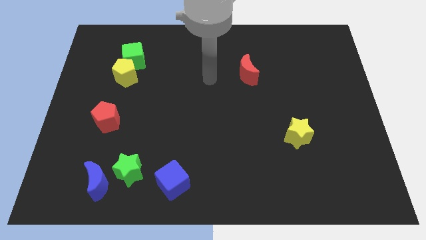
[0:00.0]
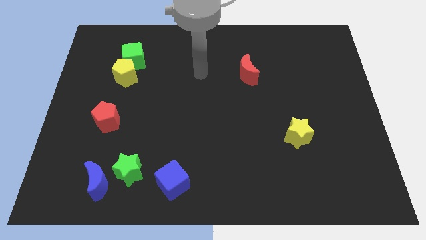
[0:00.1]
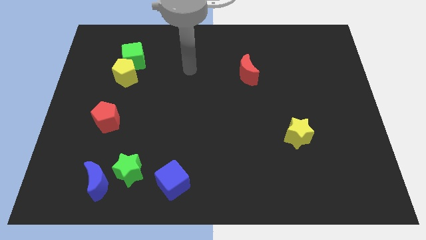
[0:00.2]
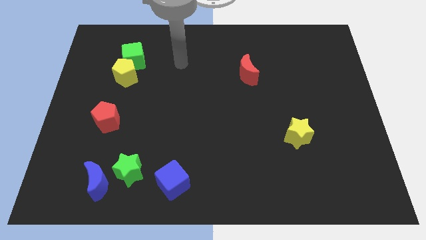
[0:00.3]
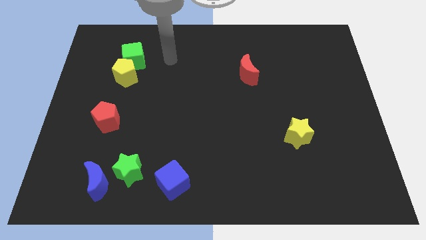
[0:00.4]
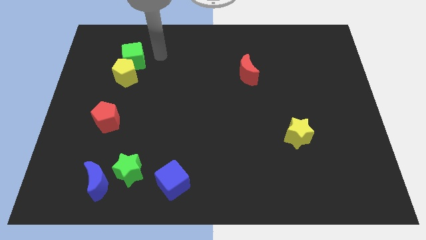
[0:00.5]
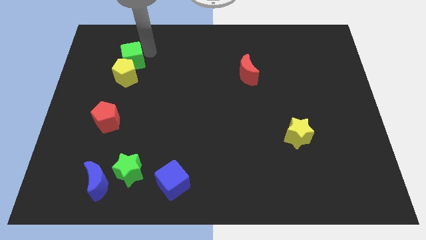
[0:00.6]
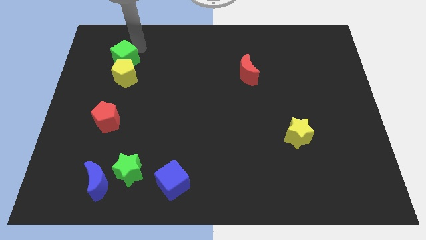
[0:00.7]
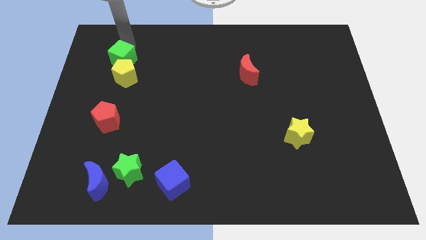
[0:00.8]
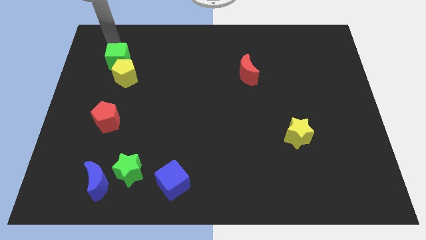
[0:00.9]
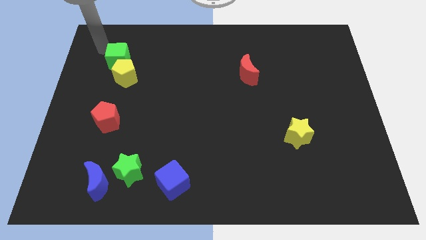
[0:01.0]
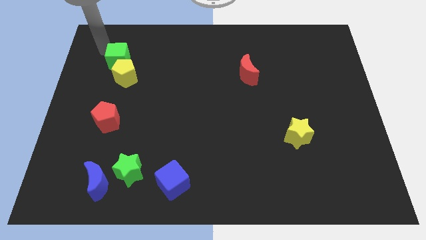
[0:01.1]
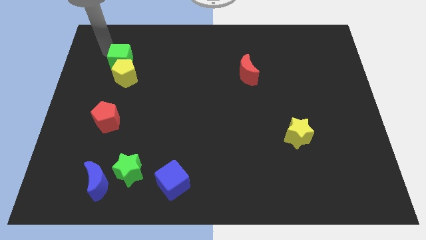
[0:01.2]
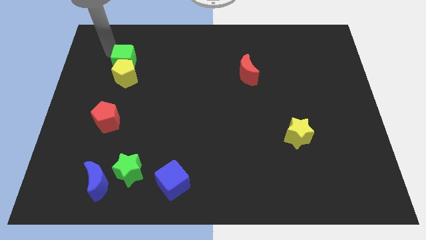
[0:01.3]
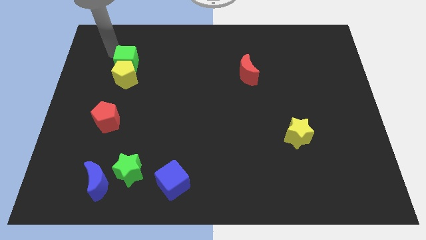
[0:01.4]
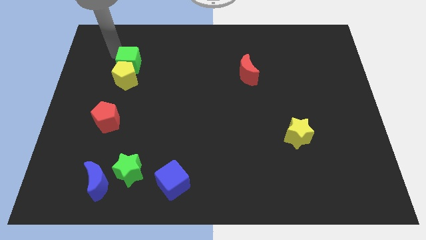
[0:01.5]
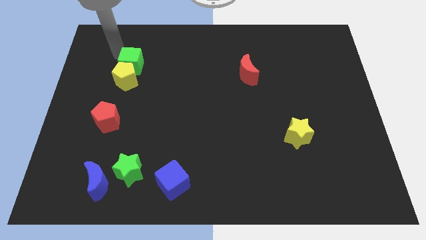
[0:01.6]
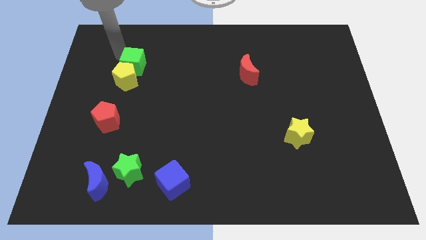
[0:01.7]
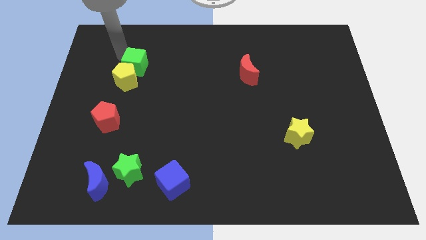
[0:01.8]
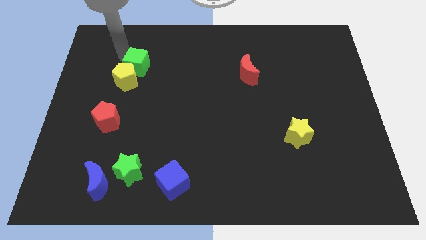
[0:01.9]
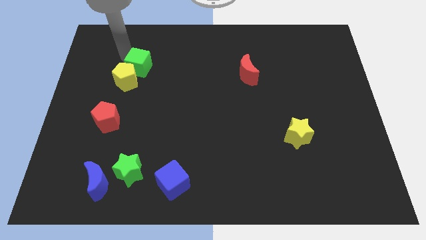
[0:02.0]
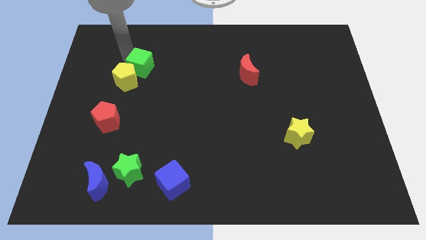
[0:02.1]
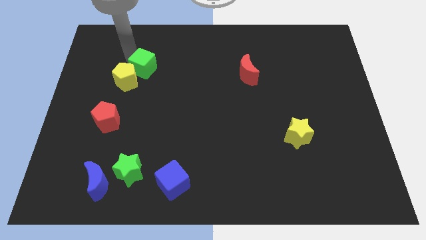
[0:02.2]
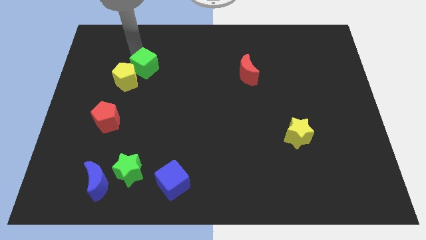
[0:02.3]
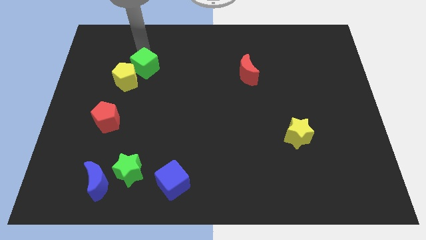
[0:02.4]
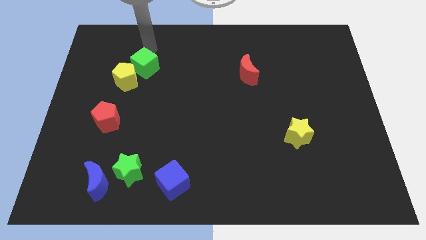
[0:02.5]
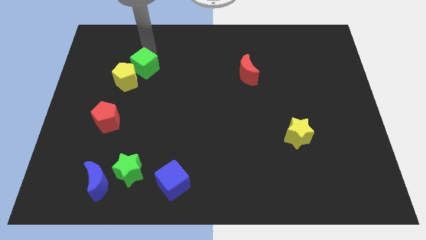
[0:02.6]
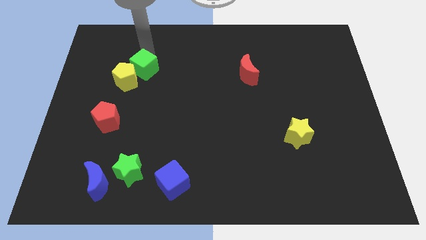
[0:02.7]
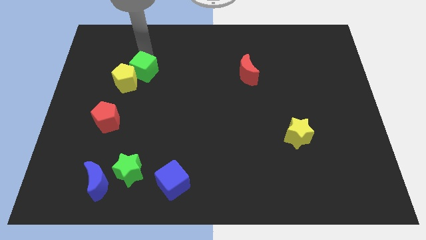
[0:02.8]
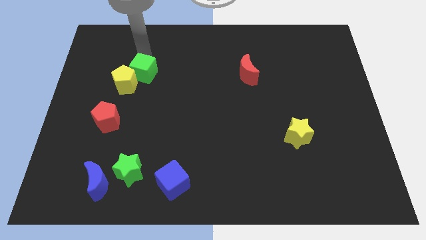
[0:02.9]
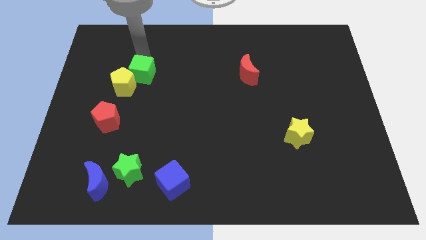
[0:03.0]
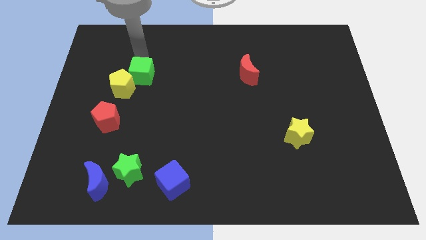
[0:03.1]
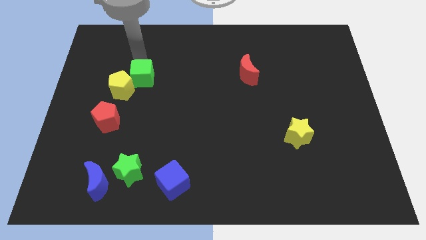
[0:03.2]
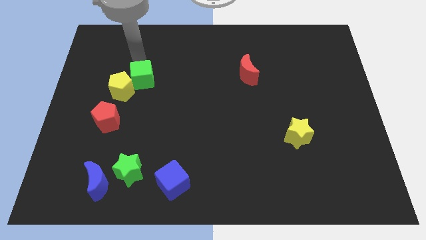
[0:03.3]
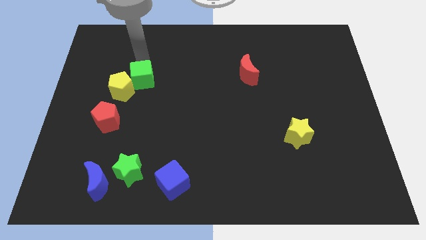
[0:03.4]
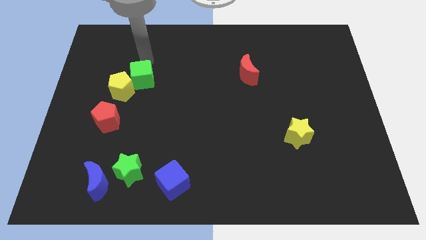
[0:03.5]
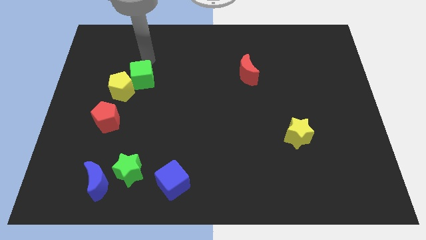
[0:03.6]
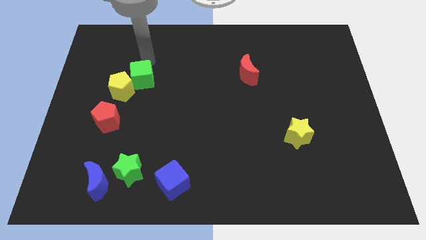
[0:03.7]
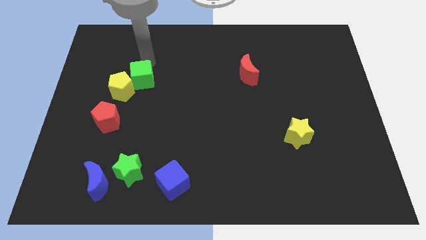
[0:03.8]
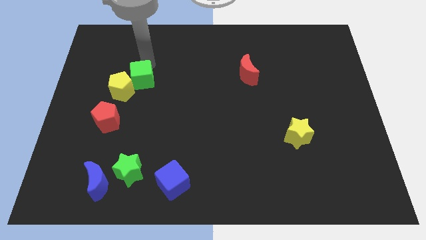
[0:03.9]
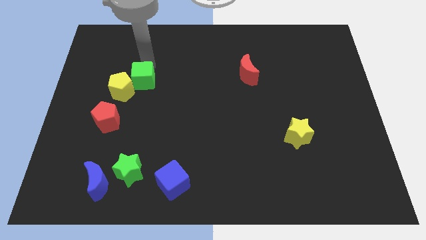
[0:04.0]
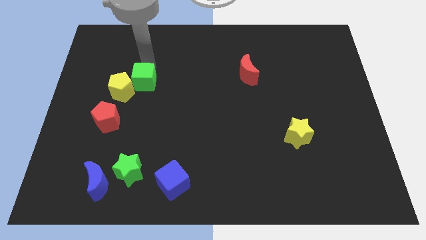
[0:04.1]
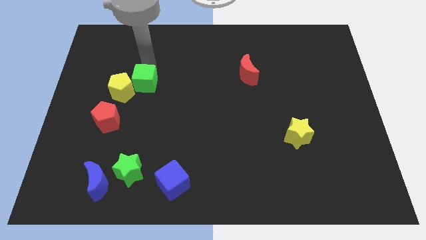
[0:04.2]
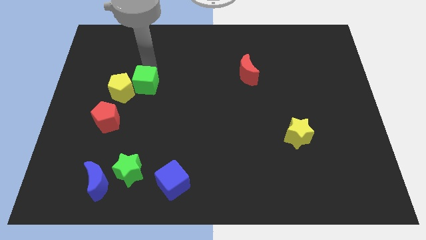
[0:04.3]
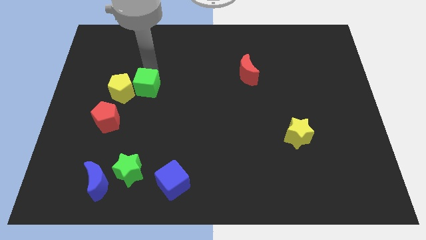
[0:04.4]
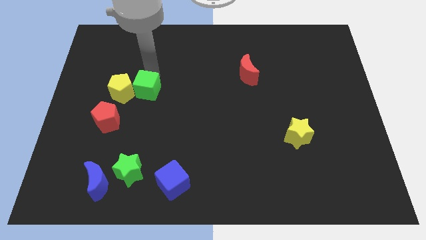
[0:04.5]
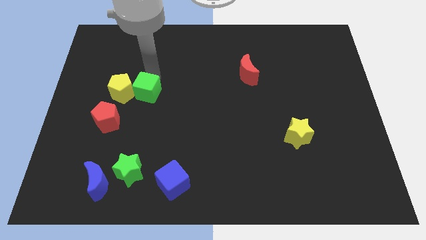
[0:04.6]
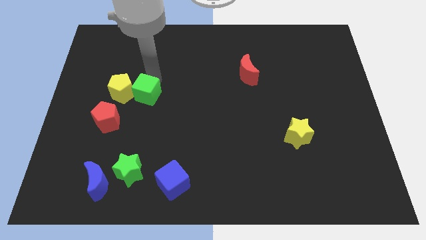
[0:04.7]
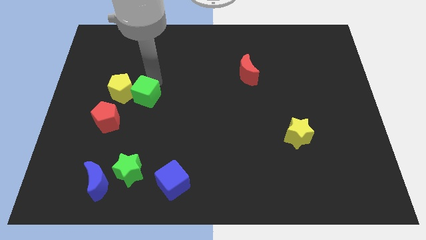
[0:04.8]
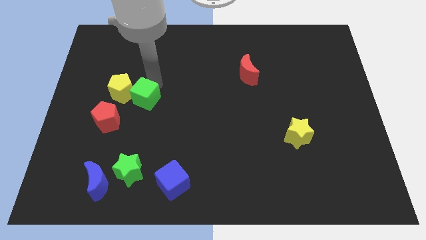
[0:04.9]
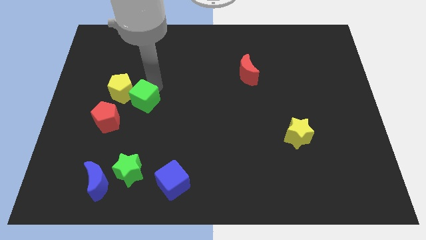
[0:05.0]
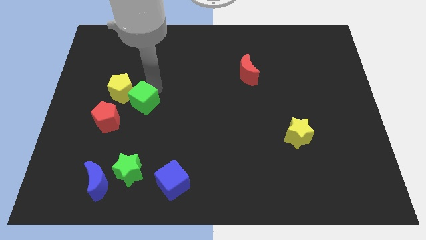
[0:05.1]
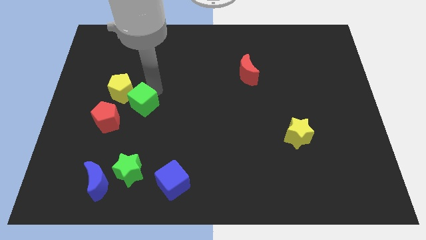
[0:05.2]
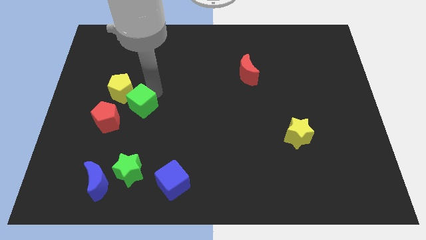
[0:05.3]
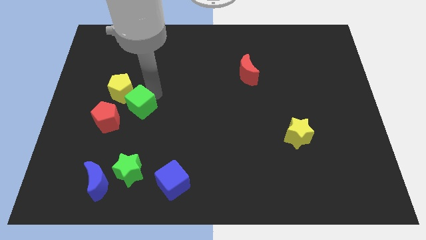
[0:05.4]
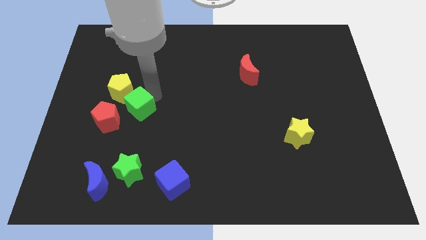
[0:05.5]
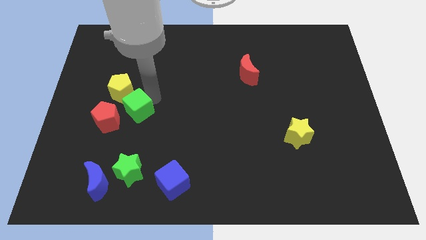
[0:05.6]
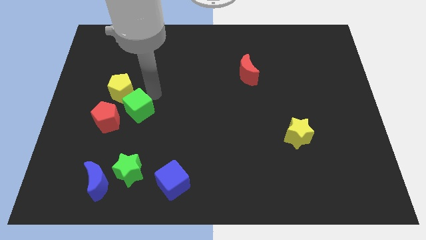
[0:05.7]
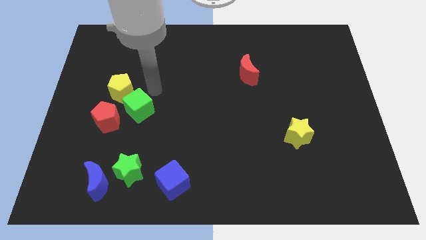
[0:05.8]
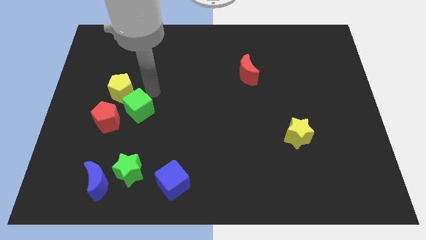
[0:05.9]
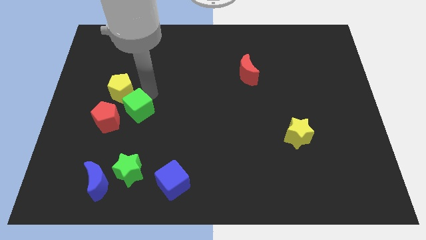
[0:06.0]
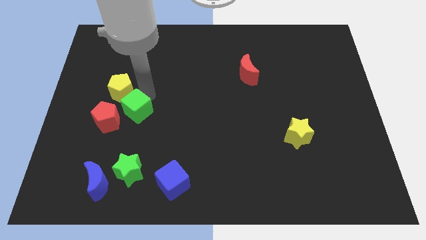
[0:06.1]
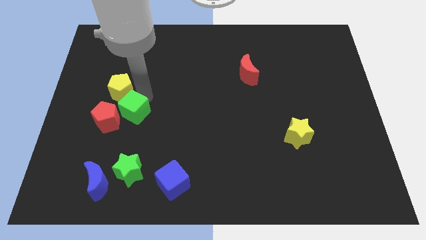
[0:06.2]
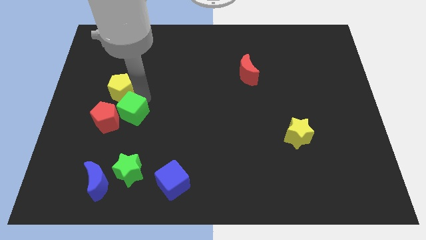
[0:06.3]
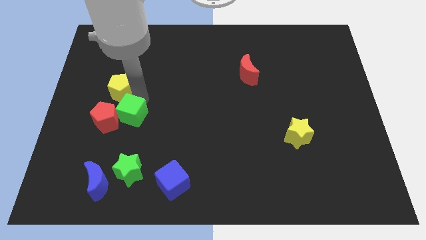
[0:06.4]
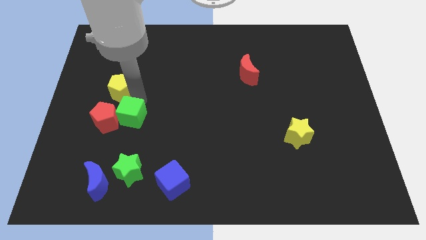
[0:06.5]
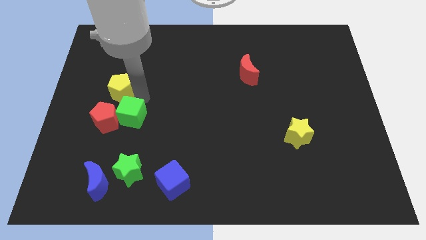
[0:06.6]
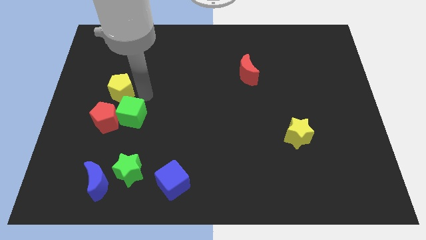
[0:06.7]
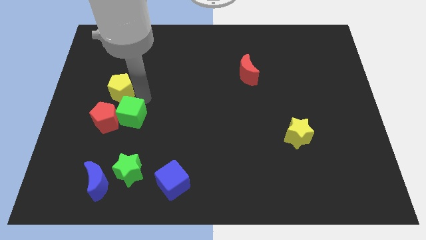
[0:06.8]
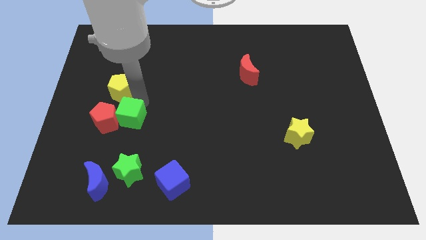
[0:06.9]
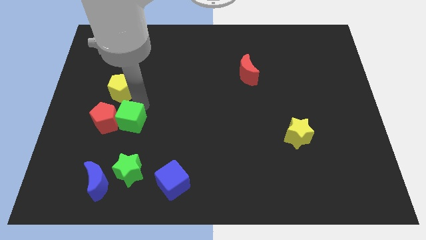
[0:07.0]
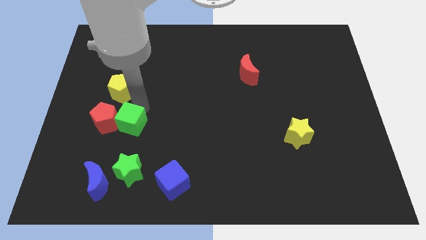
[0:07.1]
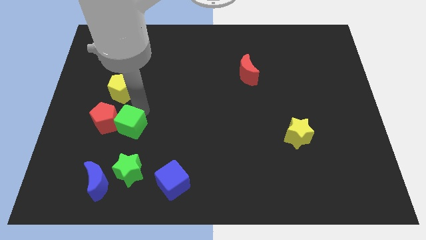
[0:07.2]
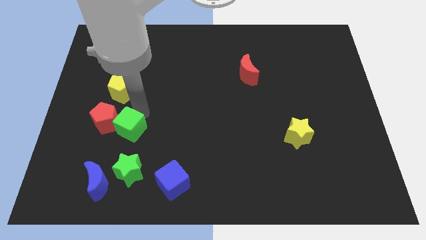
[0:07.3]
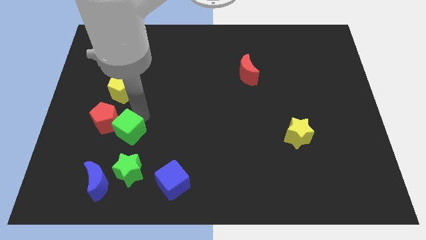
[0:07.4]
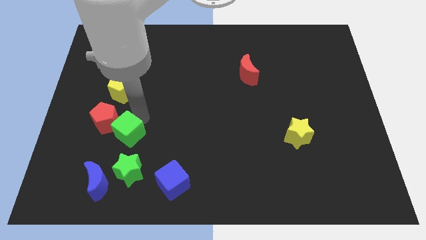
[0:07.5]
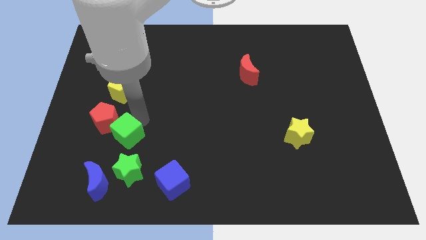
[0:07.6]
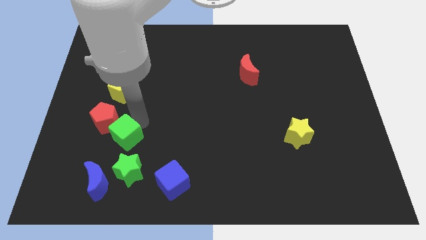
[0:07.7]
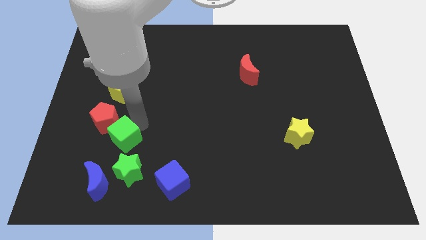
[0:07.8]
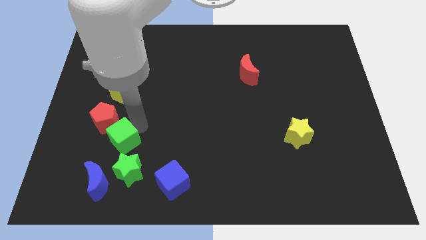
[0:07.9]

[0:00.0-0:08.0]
slide the green cube to the bottom side of the red pentagon
